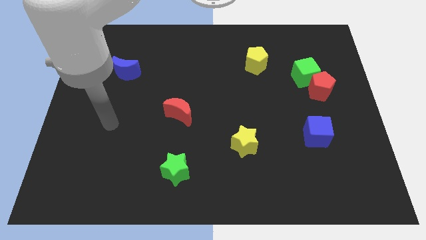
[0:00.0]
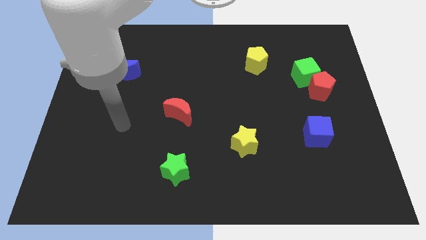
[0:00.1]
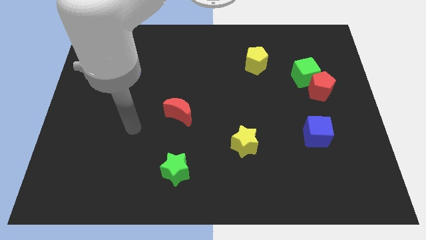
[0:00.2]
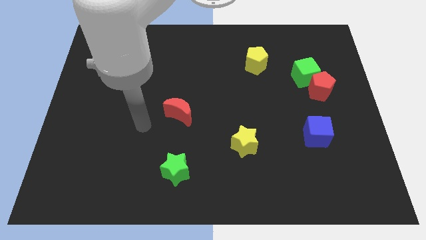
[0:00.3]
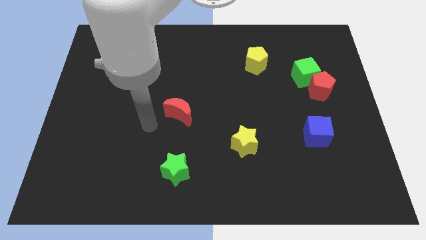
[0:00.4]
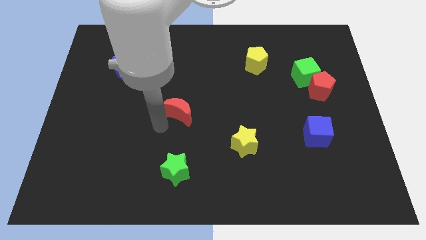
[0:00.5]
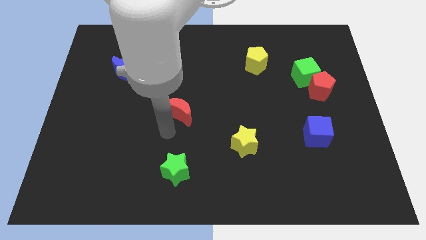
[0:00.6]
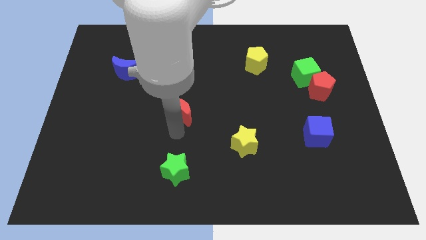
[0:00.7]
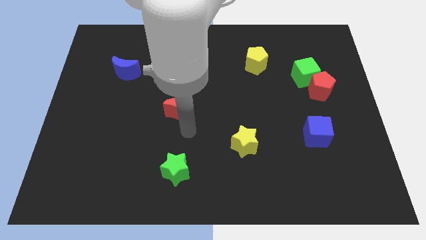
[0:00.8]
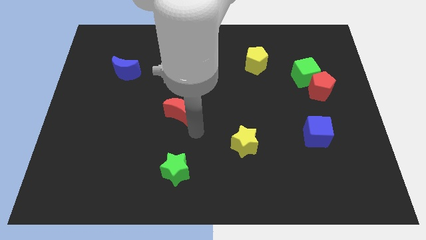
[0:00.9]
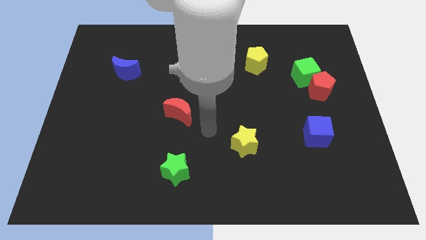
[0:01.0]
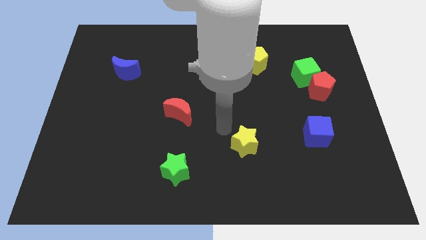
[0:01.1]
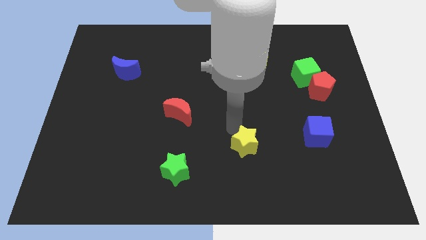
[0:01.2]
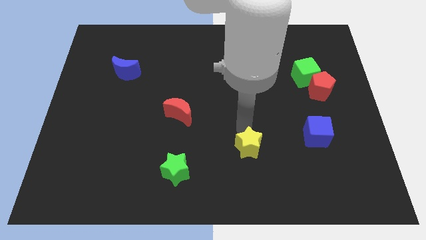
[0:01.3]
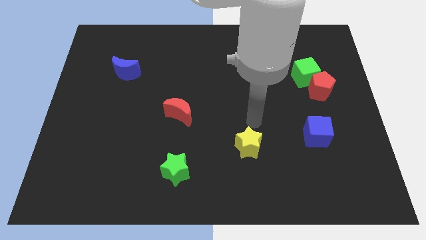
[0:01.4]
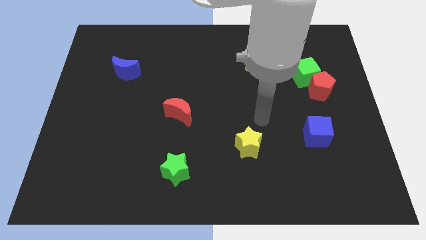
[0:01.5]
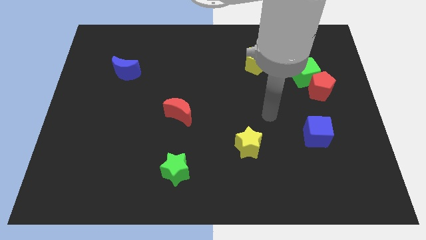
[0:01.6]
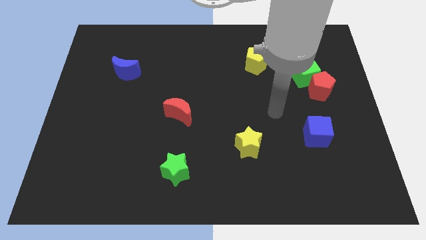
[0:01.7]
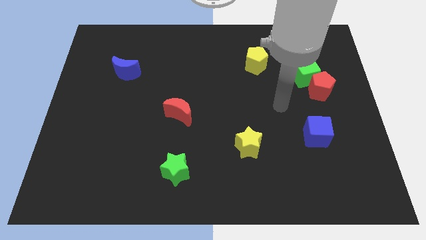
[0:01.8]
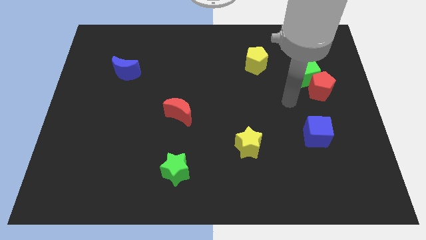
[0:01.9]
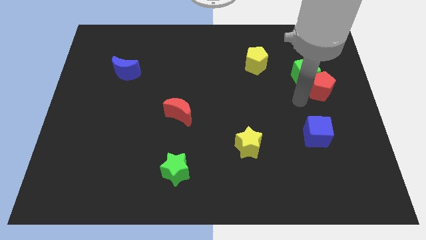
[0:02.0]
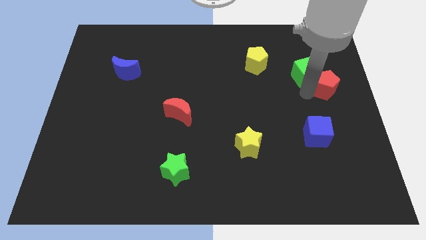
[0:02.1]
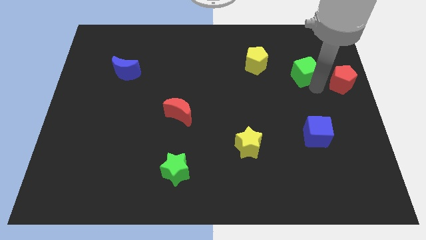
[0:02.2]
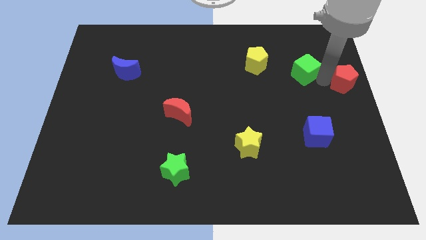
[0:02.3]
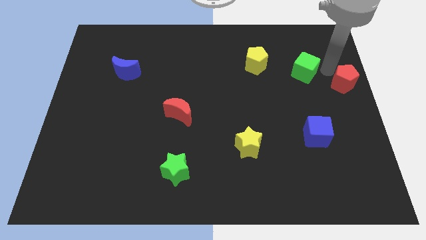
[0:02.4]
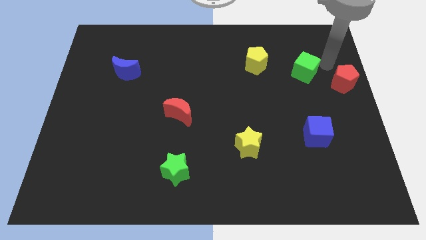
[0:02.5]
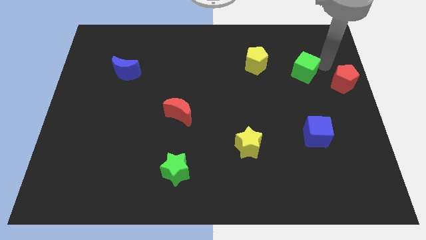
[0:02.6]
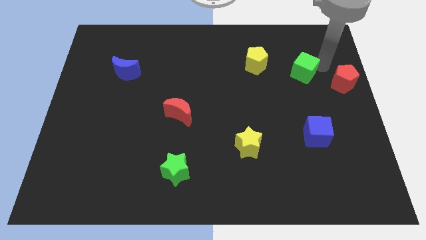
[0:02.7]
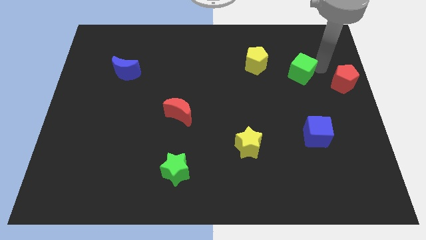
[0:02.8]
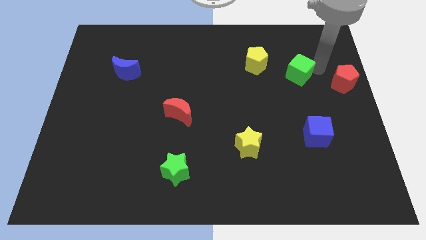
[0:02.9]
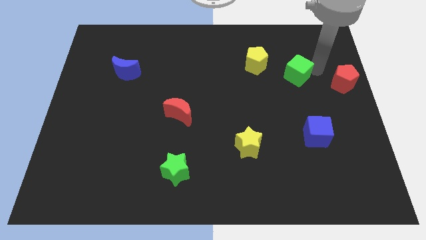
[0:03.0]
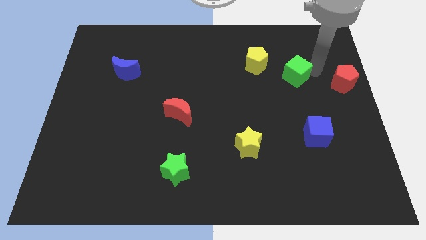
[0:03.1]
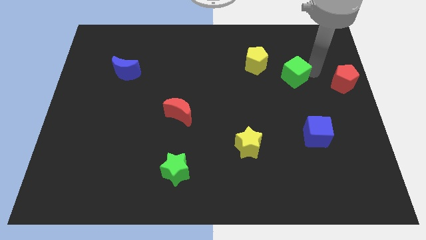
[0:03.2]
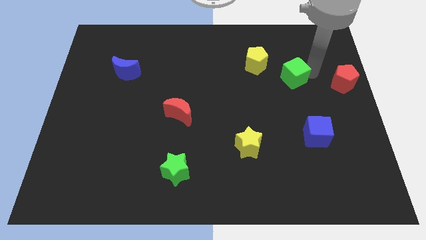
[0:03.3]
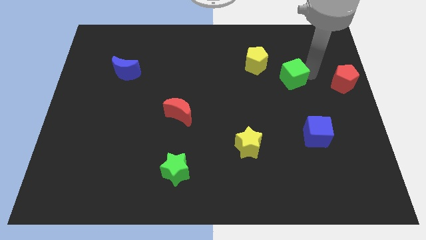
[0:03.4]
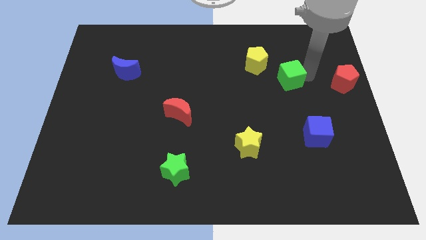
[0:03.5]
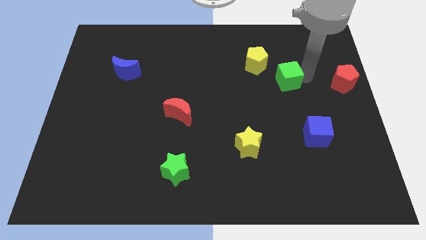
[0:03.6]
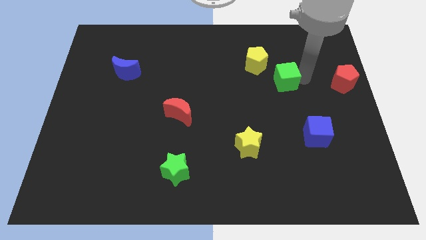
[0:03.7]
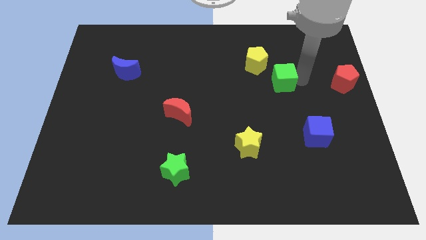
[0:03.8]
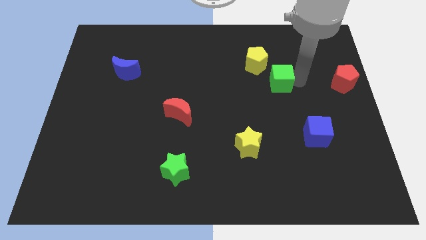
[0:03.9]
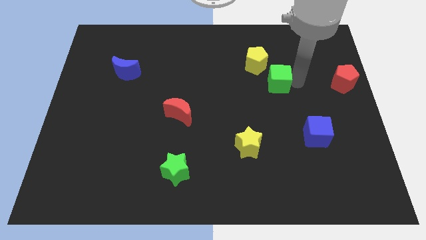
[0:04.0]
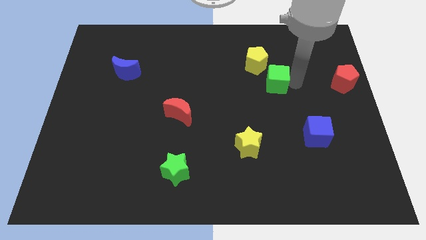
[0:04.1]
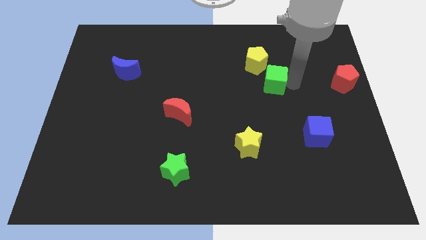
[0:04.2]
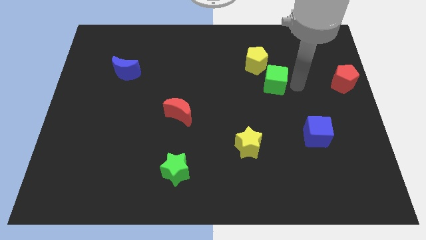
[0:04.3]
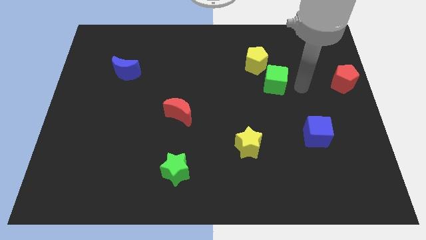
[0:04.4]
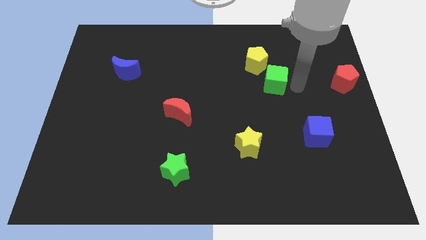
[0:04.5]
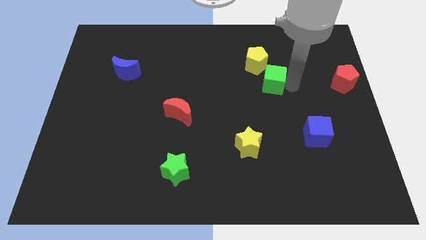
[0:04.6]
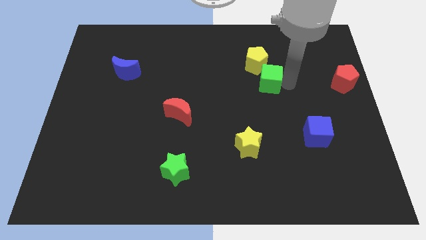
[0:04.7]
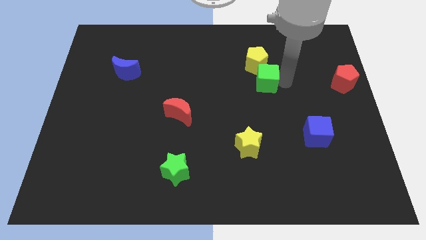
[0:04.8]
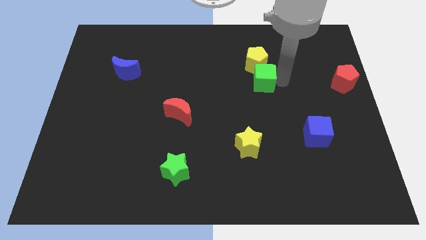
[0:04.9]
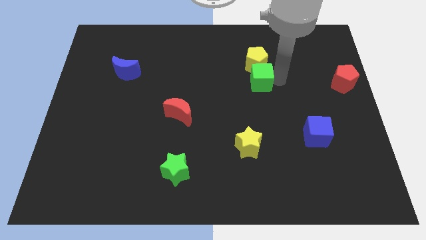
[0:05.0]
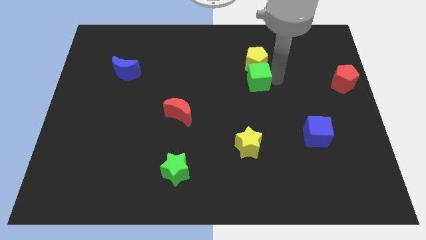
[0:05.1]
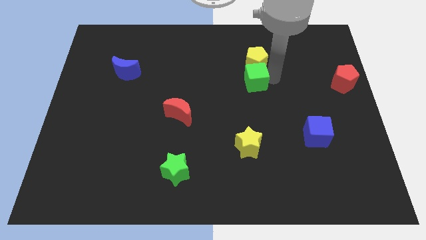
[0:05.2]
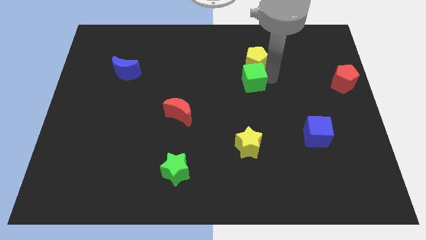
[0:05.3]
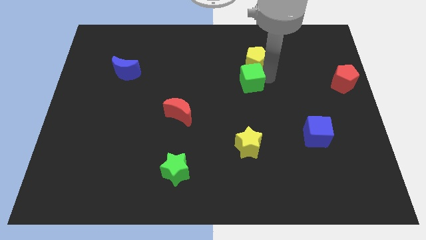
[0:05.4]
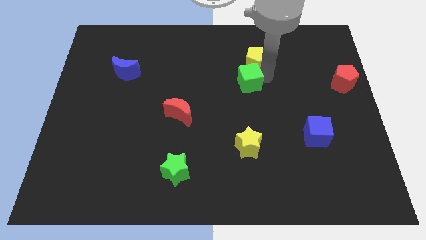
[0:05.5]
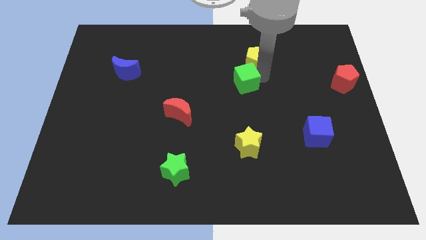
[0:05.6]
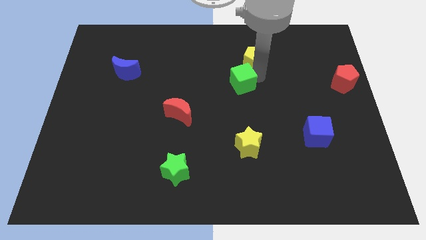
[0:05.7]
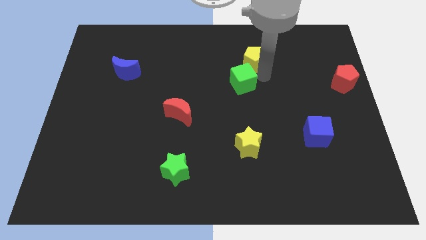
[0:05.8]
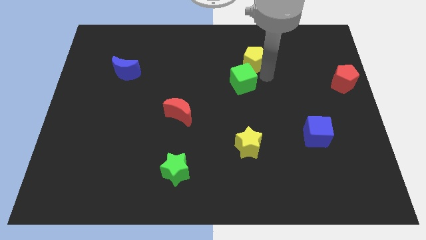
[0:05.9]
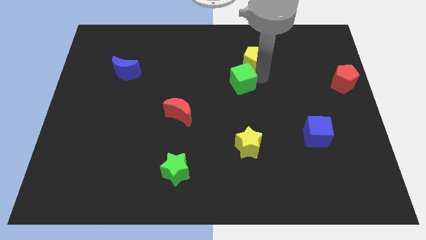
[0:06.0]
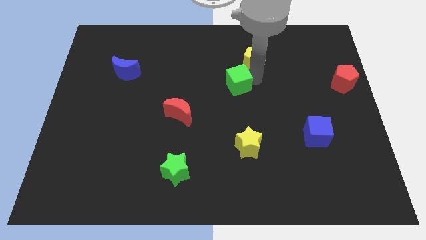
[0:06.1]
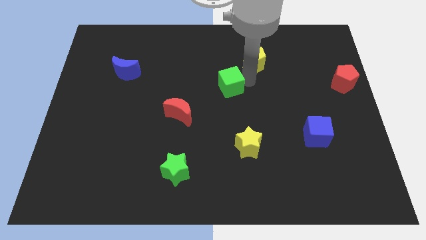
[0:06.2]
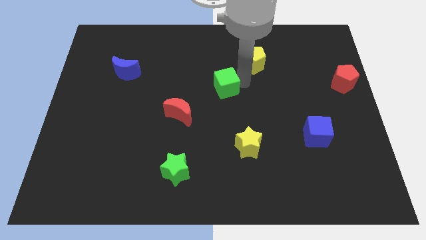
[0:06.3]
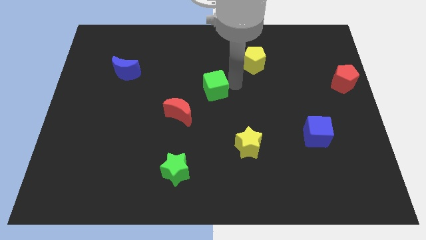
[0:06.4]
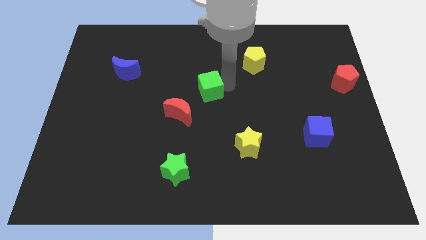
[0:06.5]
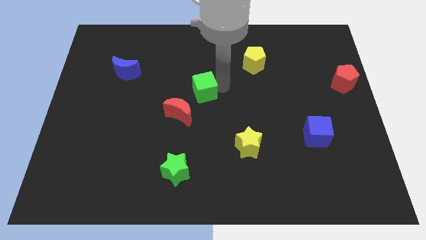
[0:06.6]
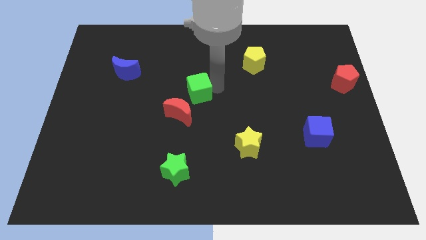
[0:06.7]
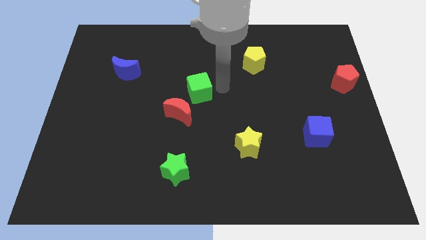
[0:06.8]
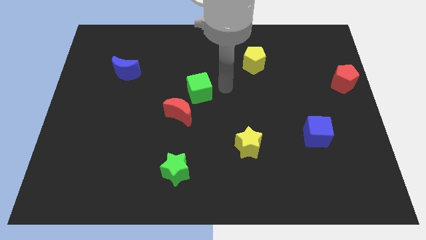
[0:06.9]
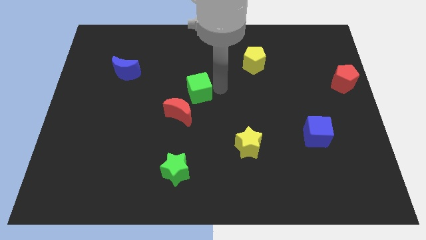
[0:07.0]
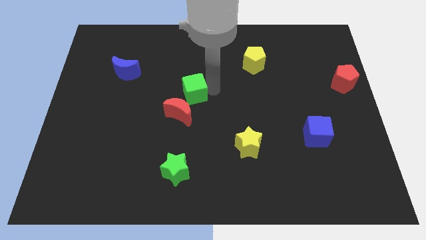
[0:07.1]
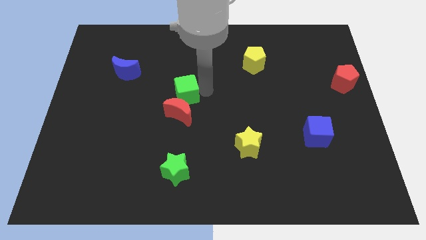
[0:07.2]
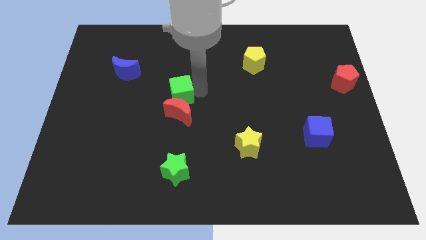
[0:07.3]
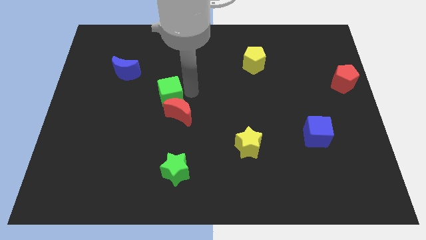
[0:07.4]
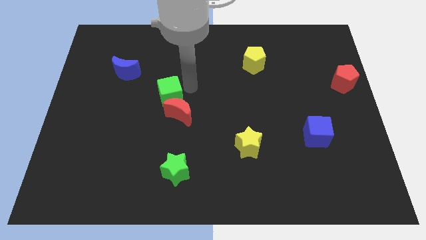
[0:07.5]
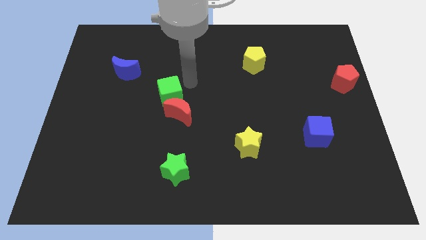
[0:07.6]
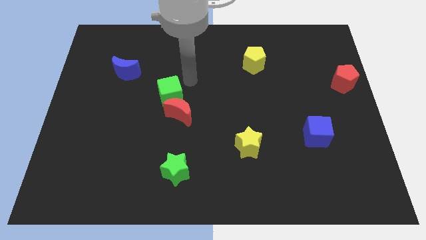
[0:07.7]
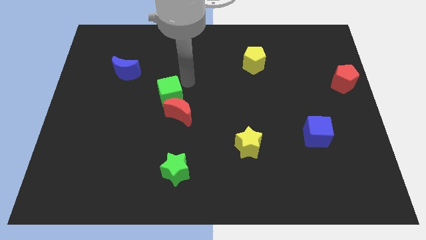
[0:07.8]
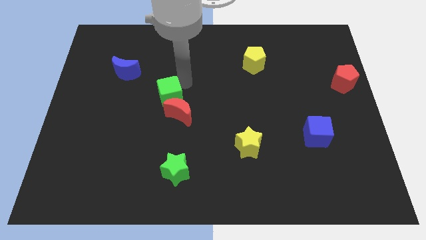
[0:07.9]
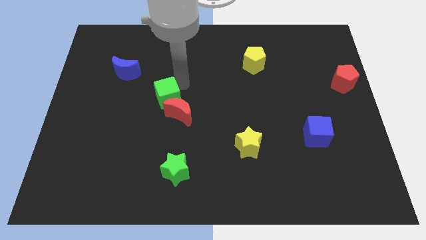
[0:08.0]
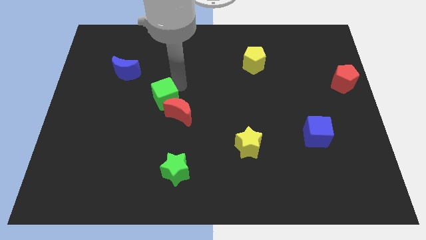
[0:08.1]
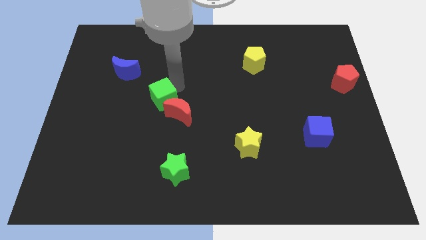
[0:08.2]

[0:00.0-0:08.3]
put the green cube just left of the red moon
